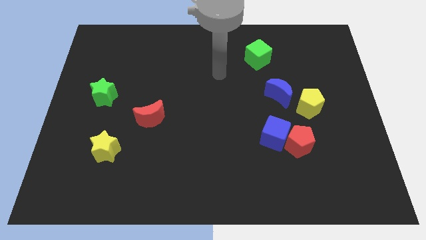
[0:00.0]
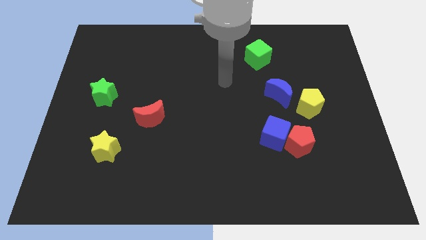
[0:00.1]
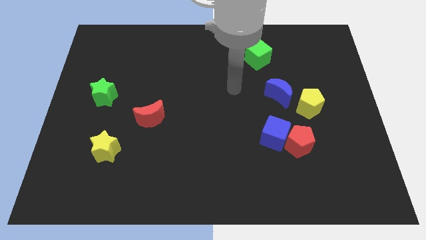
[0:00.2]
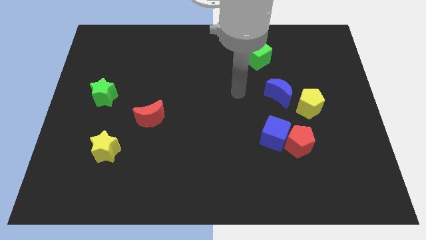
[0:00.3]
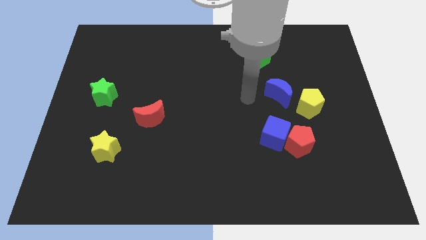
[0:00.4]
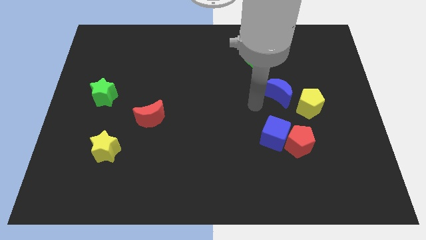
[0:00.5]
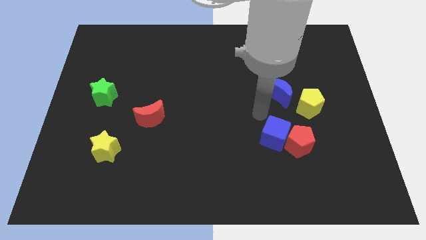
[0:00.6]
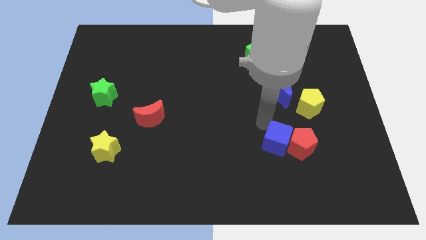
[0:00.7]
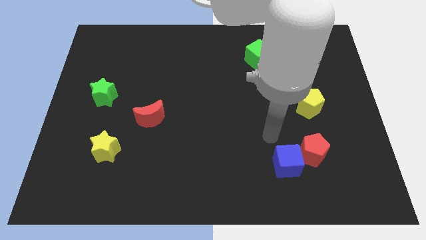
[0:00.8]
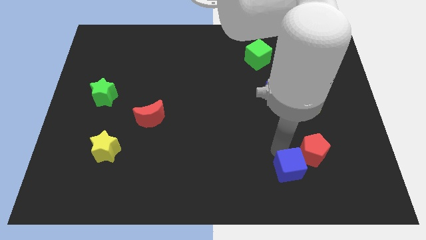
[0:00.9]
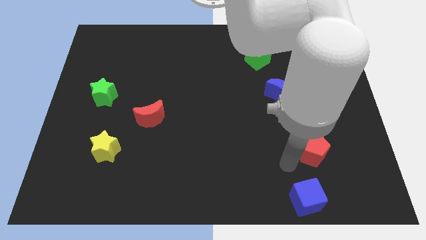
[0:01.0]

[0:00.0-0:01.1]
separate the red pentagon from the blue cube

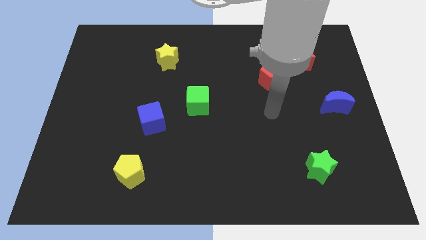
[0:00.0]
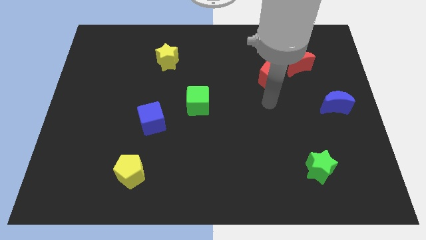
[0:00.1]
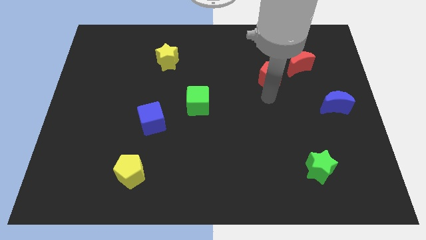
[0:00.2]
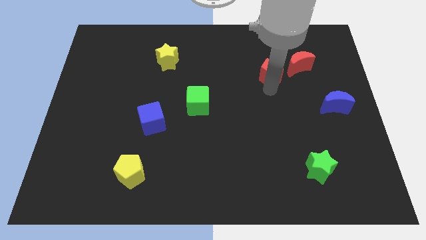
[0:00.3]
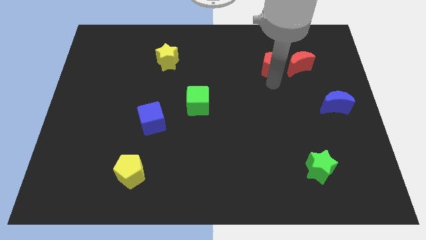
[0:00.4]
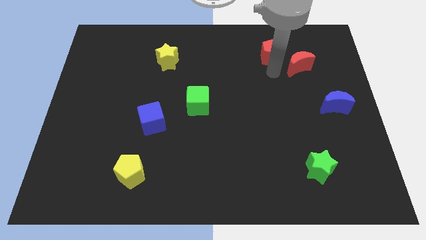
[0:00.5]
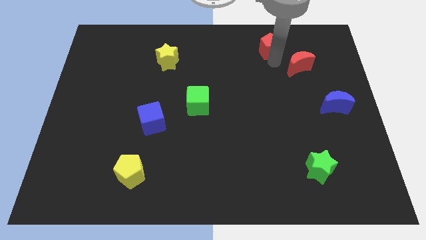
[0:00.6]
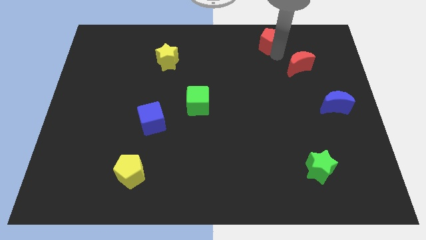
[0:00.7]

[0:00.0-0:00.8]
move the red moon away from the red pentagon

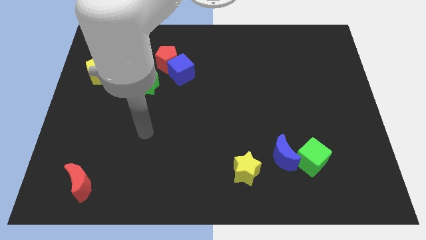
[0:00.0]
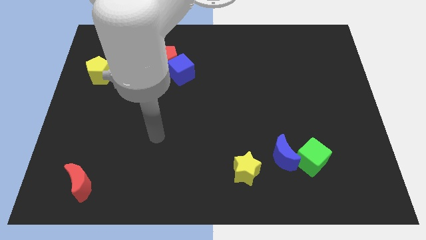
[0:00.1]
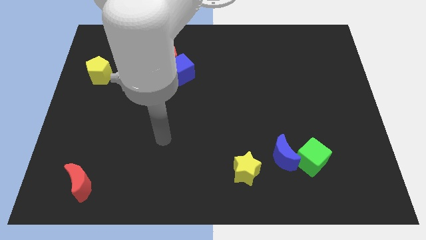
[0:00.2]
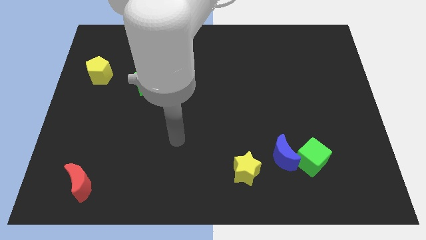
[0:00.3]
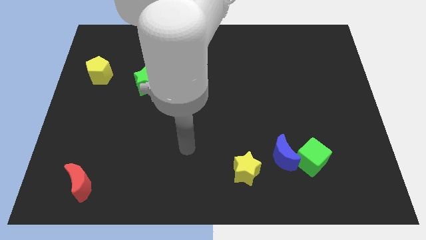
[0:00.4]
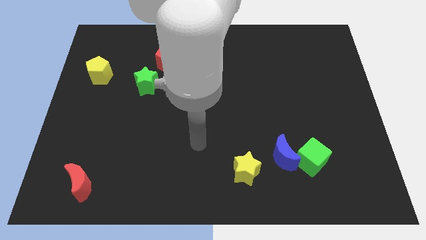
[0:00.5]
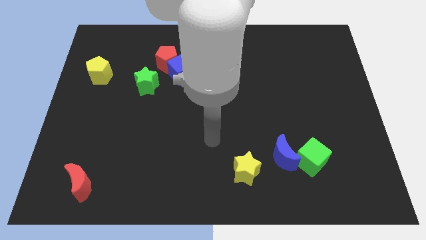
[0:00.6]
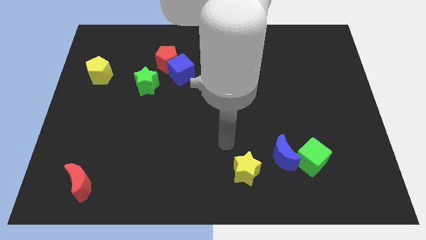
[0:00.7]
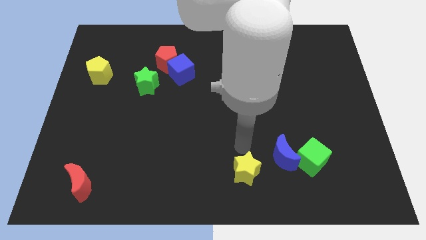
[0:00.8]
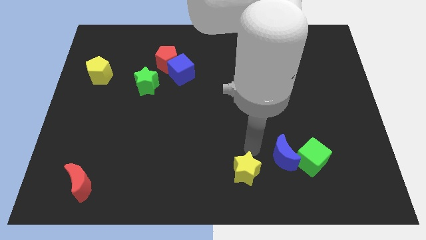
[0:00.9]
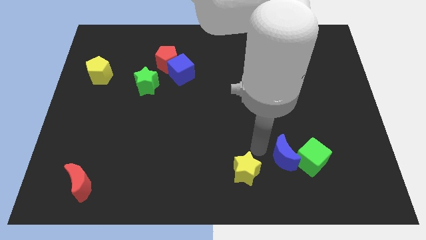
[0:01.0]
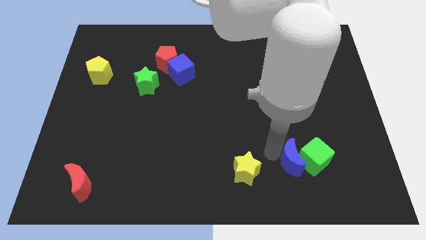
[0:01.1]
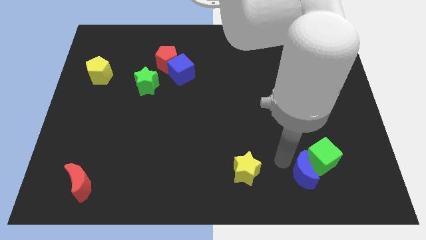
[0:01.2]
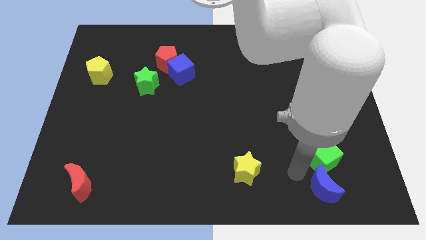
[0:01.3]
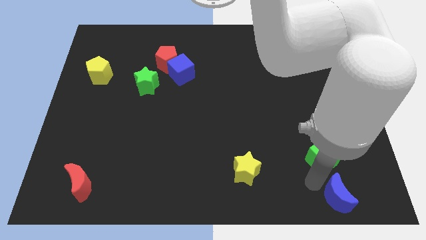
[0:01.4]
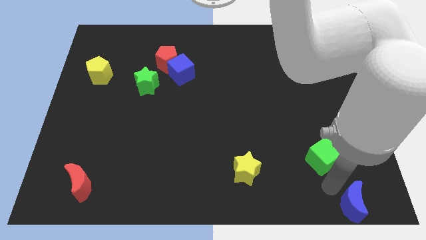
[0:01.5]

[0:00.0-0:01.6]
separate the green cube from the blue moon

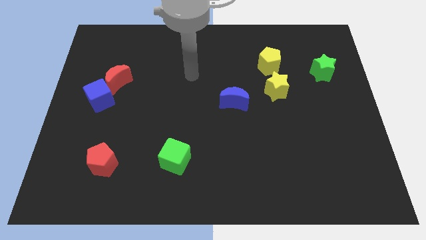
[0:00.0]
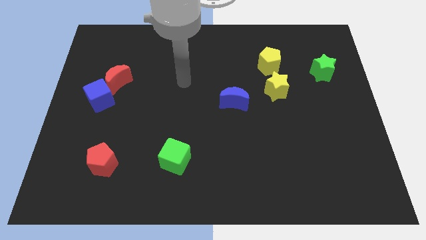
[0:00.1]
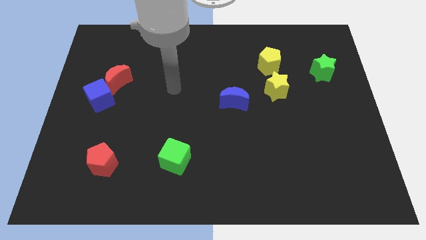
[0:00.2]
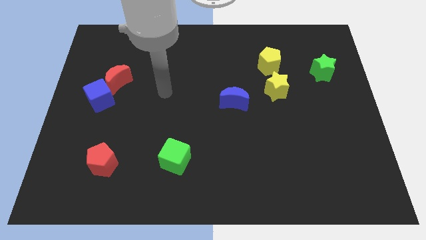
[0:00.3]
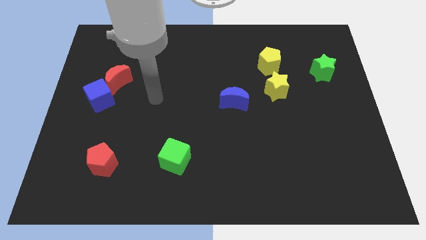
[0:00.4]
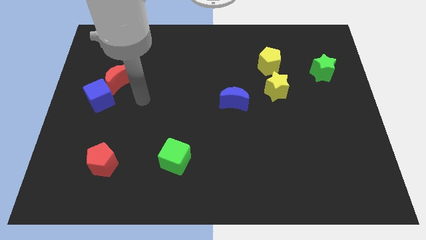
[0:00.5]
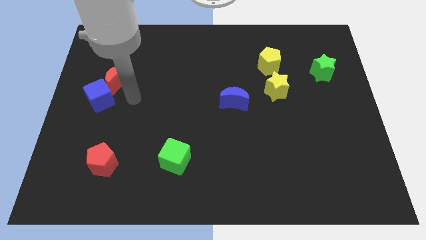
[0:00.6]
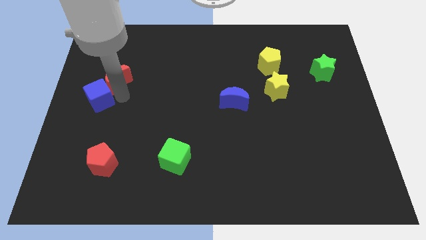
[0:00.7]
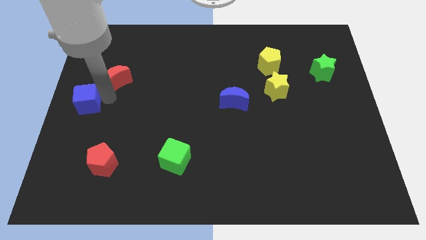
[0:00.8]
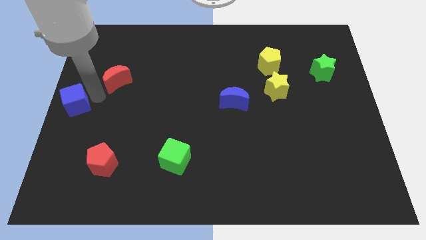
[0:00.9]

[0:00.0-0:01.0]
pull the red moon apart from the blue cube

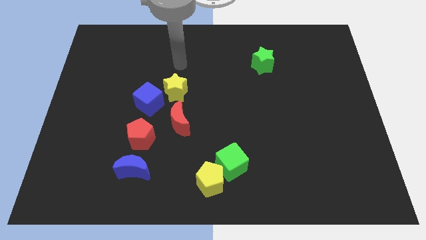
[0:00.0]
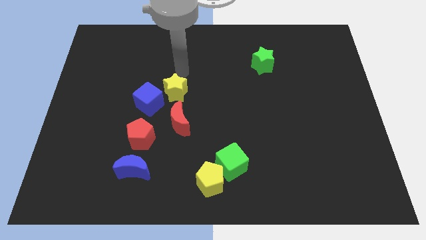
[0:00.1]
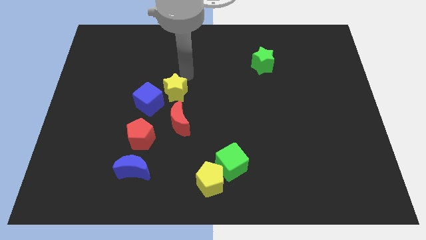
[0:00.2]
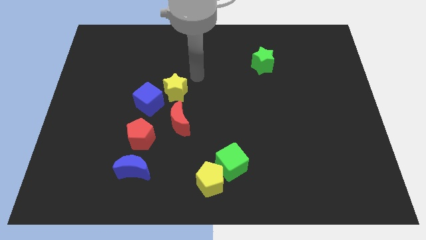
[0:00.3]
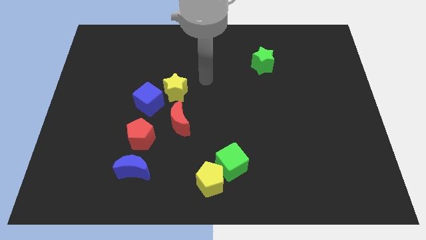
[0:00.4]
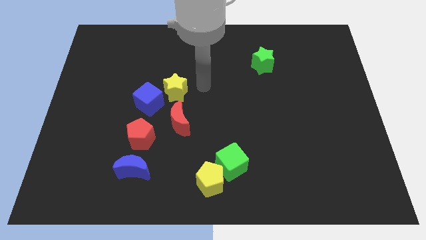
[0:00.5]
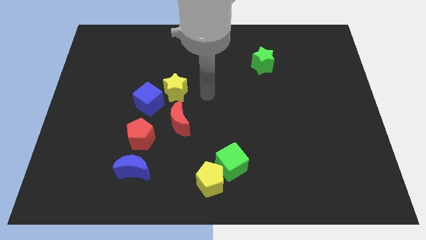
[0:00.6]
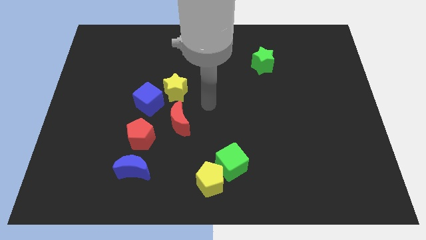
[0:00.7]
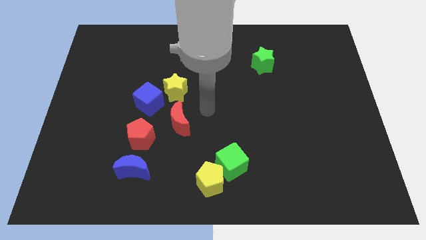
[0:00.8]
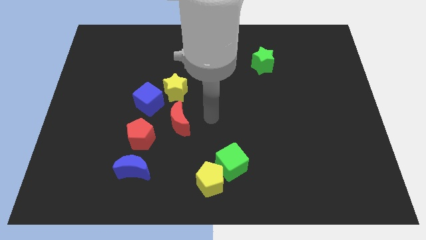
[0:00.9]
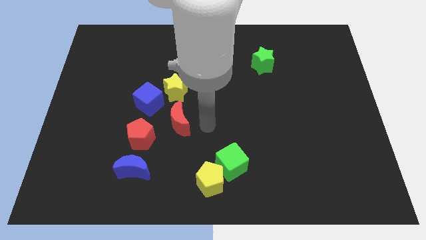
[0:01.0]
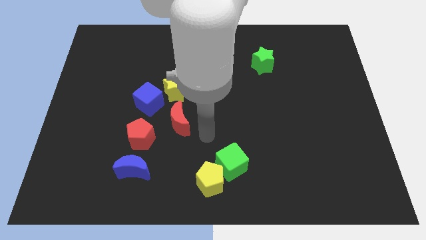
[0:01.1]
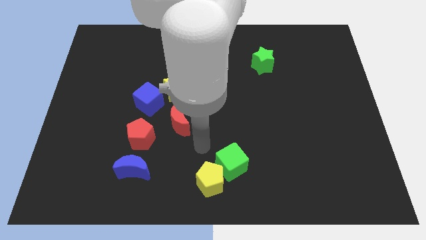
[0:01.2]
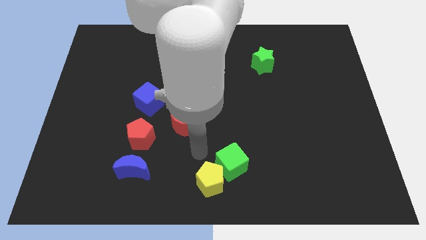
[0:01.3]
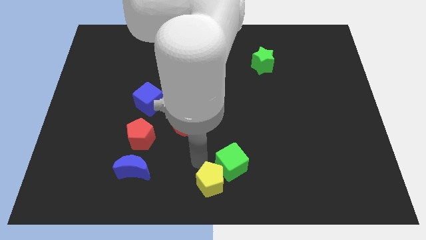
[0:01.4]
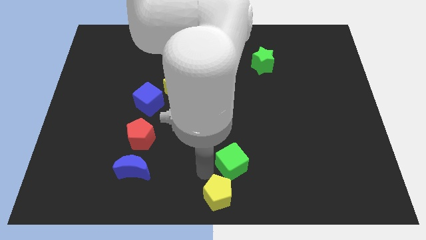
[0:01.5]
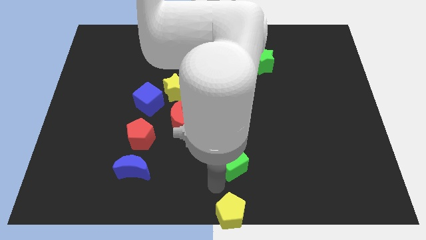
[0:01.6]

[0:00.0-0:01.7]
separate the green cube from the yellow pentagon

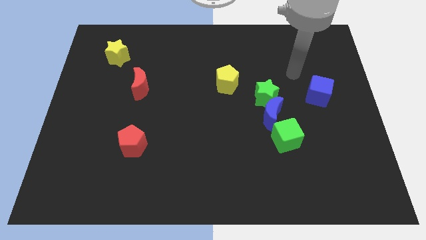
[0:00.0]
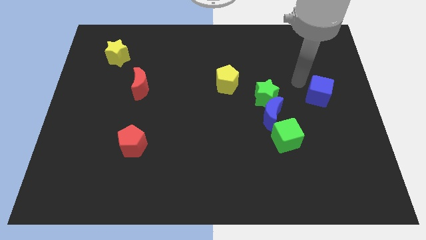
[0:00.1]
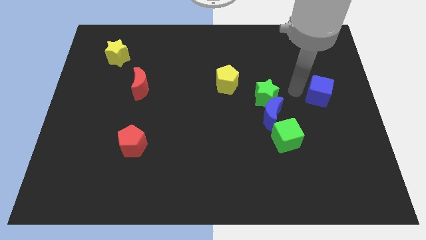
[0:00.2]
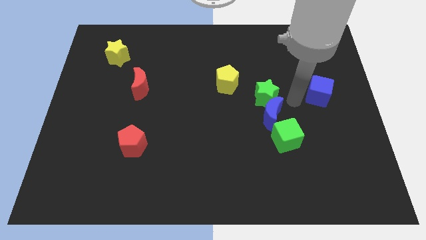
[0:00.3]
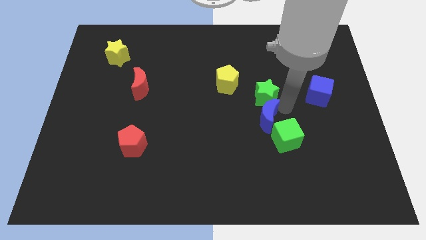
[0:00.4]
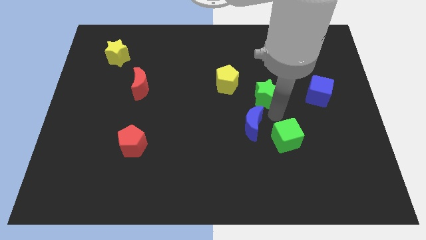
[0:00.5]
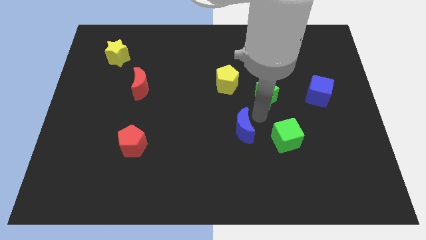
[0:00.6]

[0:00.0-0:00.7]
pull the green star apart from the blue moon

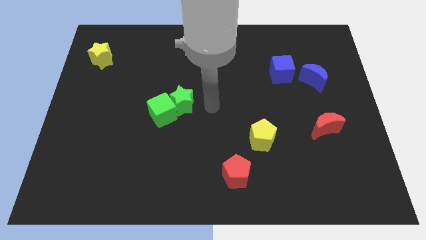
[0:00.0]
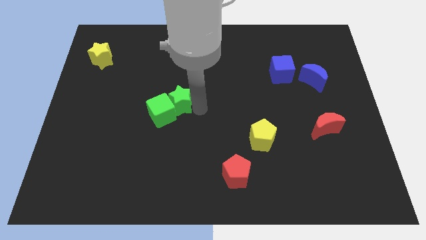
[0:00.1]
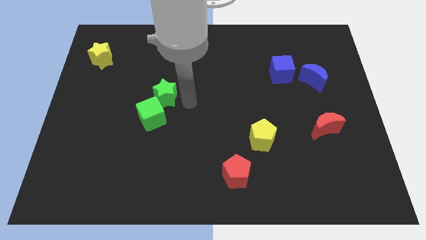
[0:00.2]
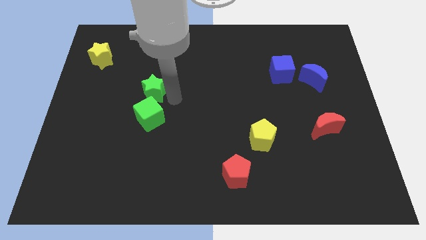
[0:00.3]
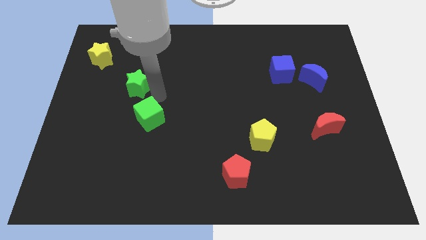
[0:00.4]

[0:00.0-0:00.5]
pull the green cube apart from the green star

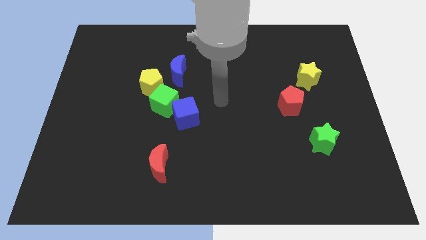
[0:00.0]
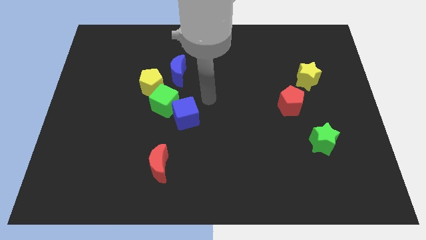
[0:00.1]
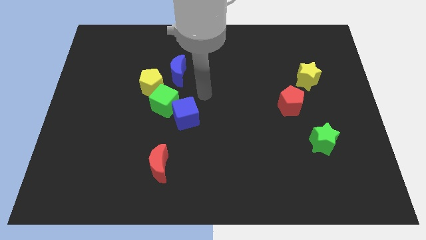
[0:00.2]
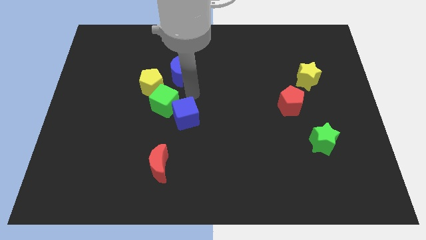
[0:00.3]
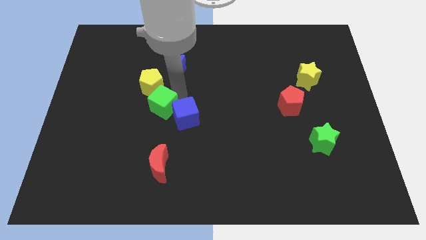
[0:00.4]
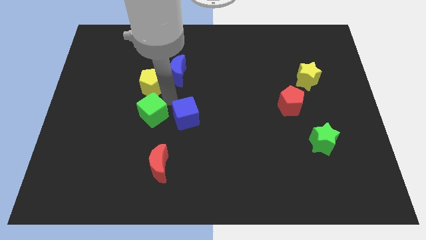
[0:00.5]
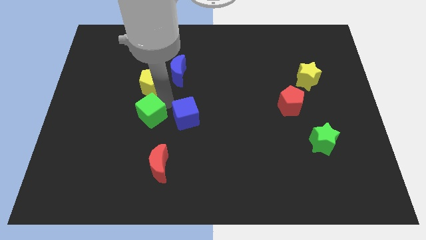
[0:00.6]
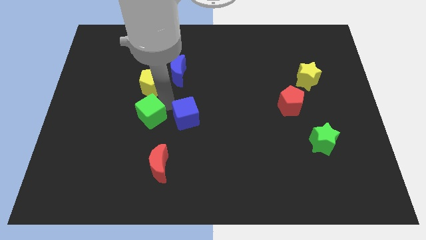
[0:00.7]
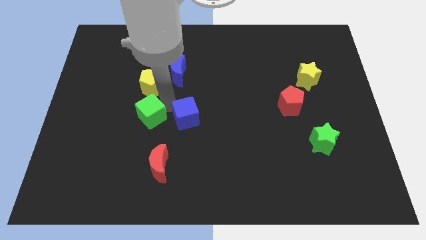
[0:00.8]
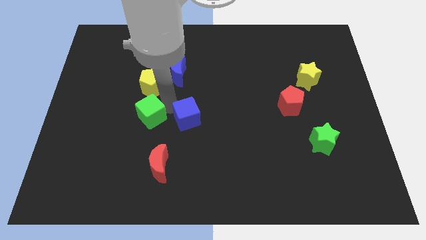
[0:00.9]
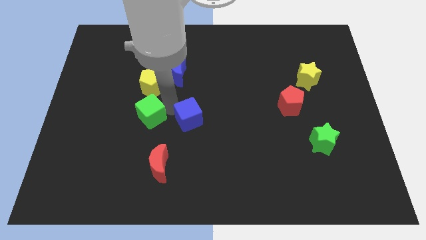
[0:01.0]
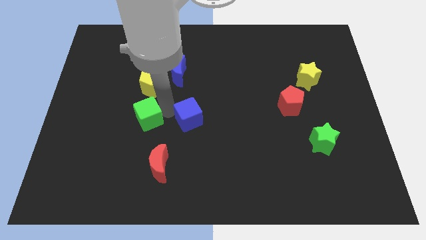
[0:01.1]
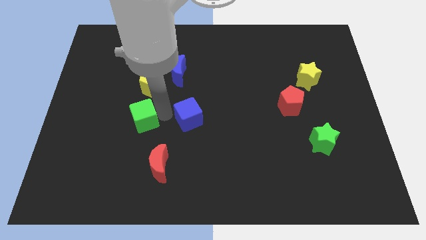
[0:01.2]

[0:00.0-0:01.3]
move the blue cube away from the green cube

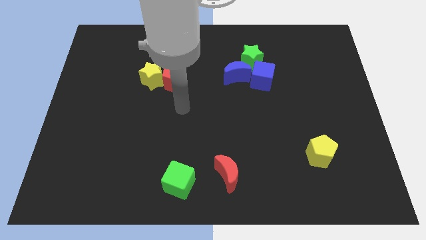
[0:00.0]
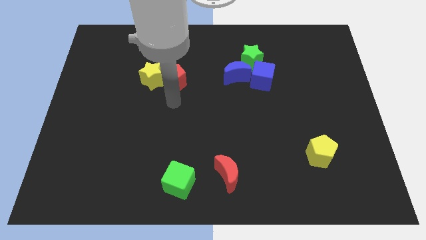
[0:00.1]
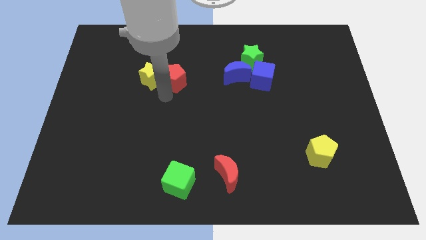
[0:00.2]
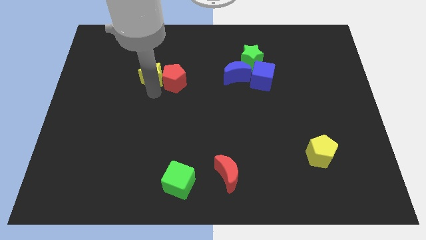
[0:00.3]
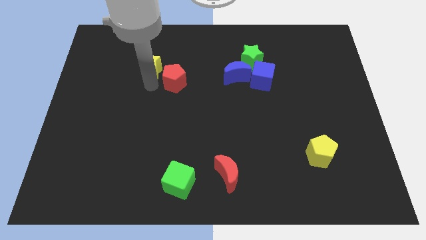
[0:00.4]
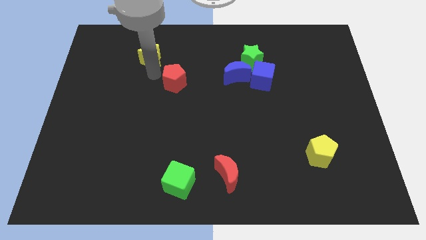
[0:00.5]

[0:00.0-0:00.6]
separate the red pentagon from the yellow star
